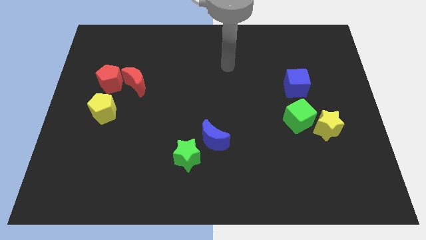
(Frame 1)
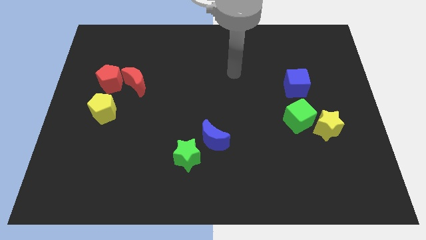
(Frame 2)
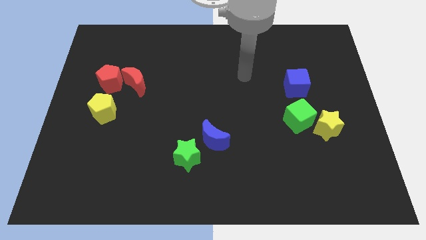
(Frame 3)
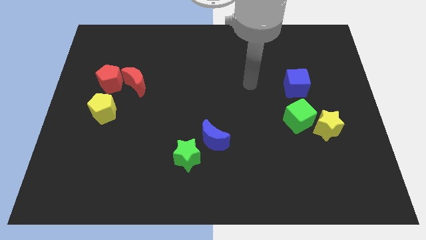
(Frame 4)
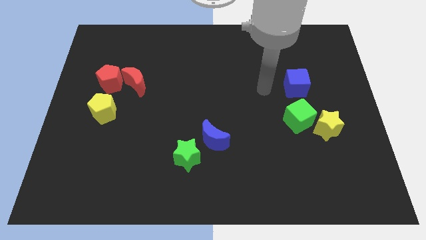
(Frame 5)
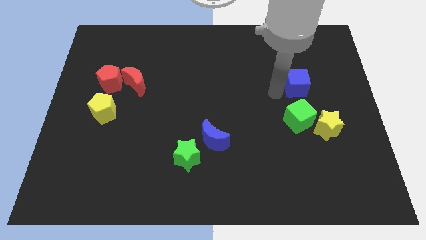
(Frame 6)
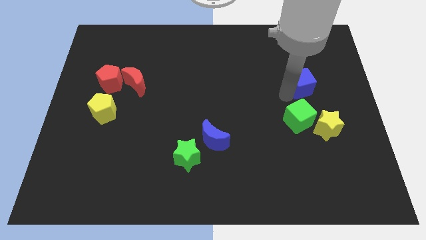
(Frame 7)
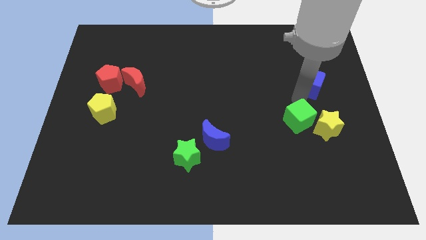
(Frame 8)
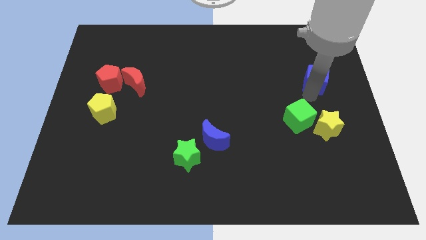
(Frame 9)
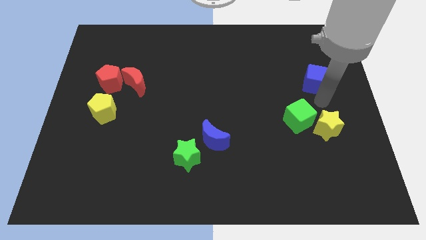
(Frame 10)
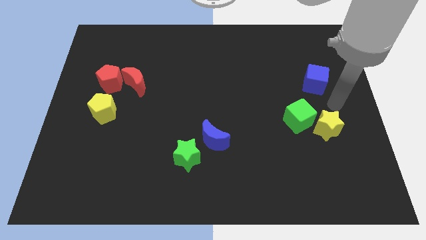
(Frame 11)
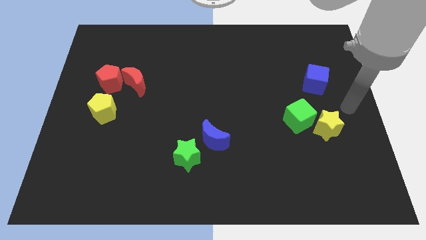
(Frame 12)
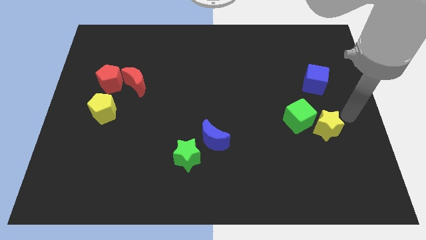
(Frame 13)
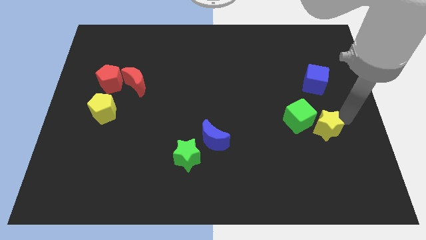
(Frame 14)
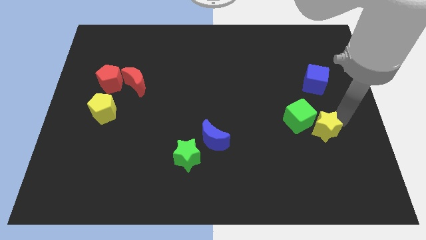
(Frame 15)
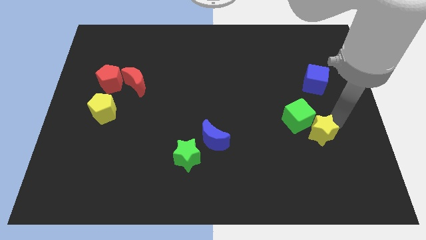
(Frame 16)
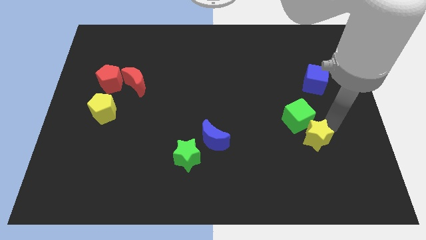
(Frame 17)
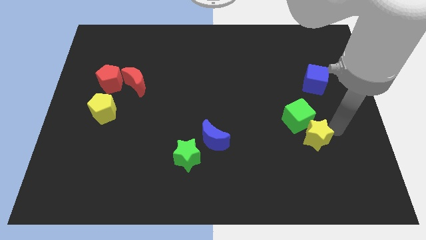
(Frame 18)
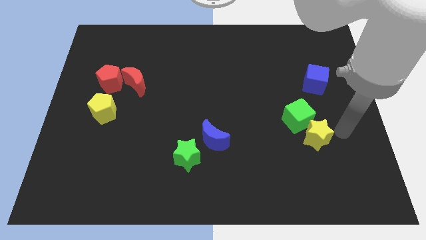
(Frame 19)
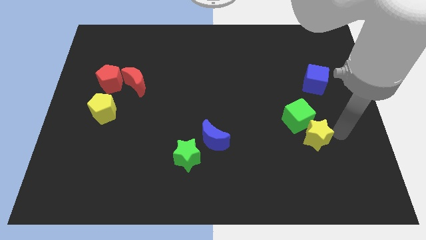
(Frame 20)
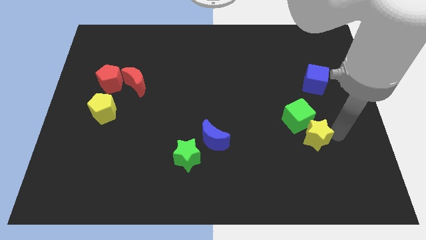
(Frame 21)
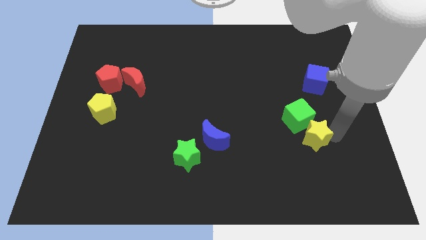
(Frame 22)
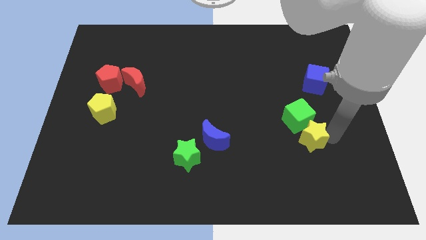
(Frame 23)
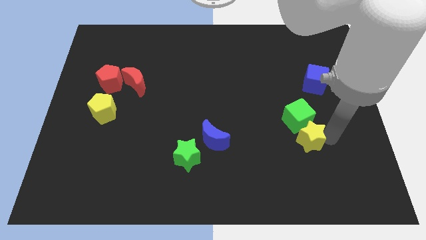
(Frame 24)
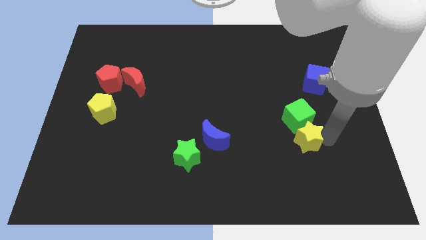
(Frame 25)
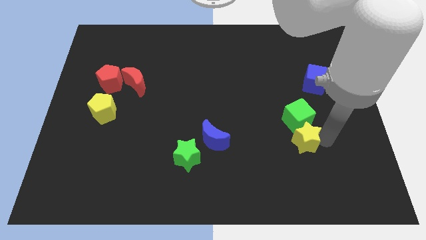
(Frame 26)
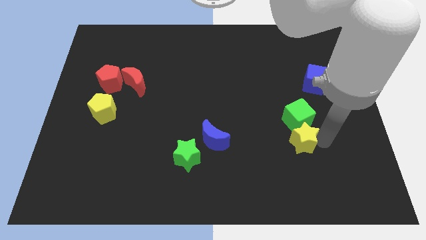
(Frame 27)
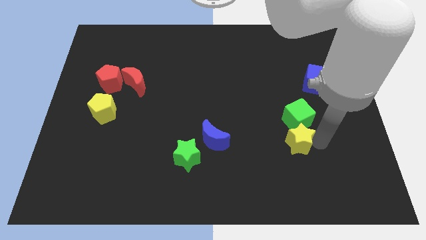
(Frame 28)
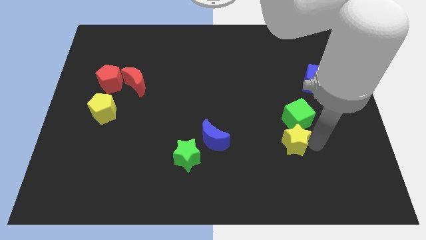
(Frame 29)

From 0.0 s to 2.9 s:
slide the yellow star slightly left

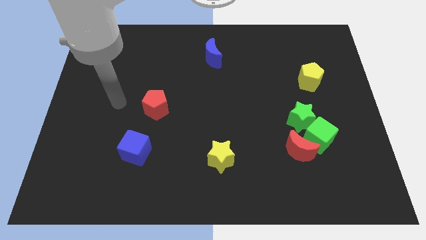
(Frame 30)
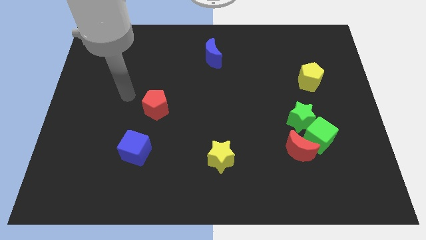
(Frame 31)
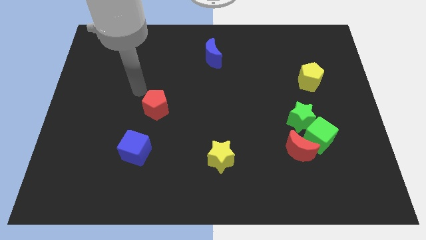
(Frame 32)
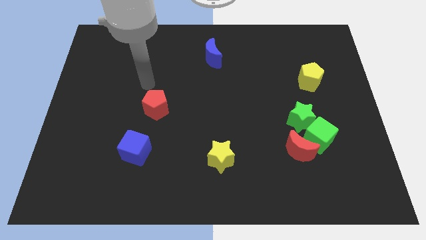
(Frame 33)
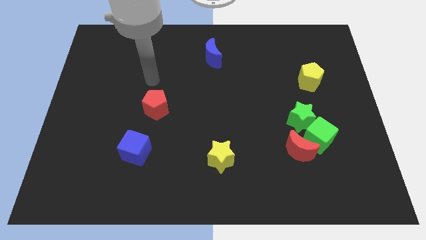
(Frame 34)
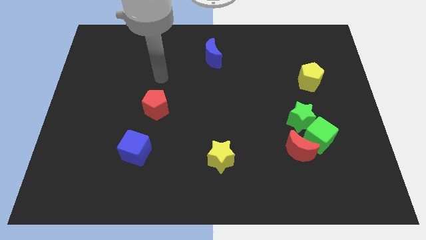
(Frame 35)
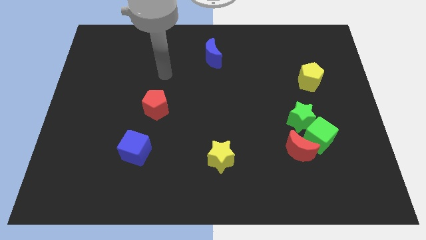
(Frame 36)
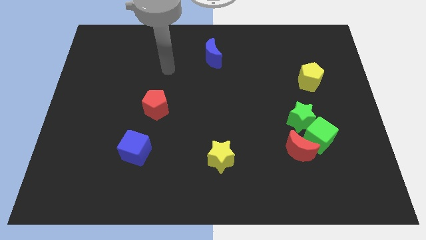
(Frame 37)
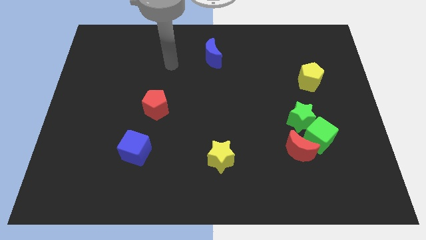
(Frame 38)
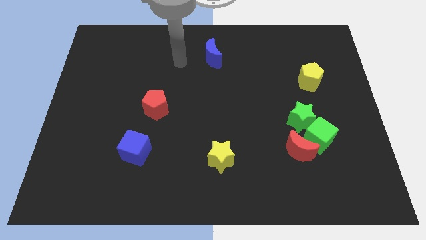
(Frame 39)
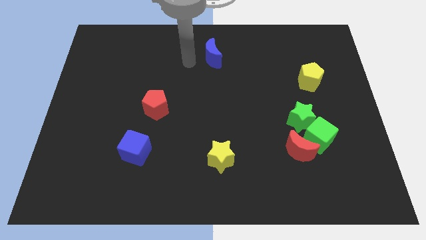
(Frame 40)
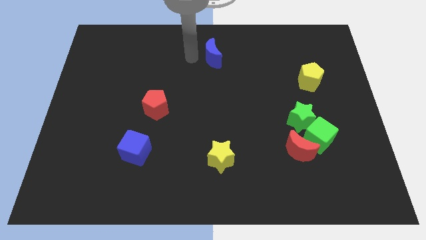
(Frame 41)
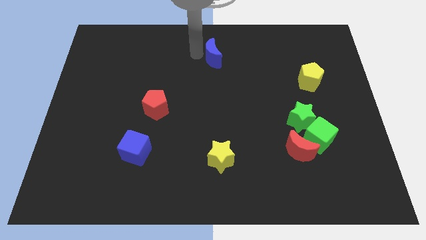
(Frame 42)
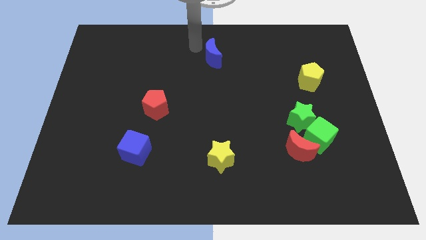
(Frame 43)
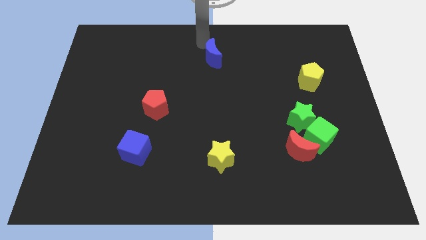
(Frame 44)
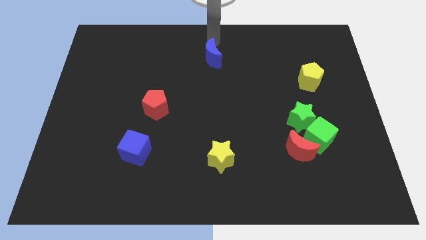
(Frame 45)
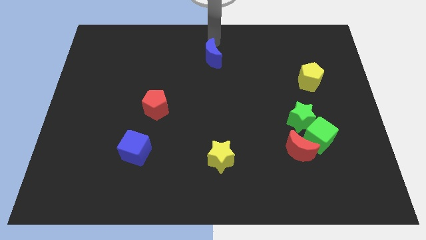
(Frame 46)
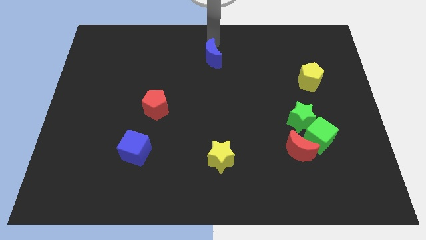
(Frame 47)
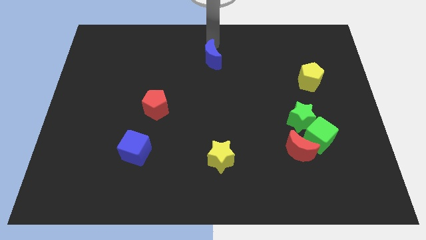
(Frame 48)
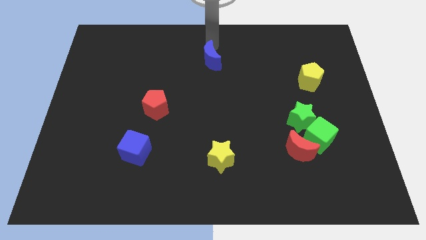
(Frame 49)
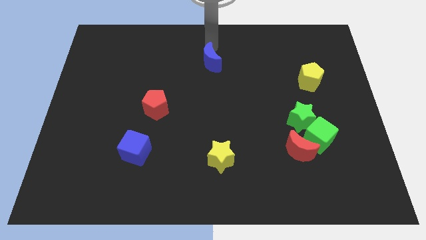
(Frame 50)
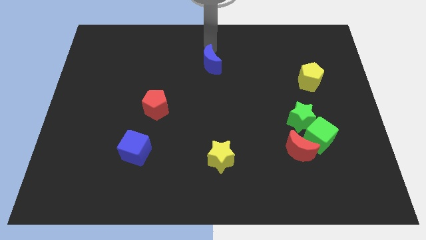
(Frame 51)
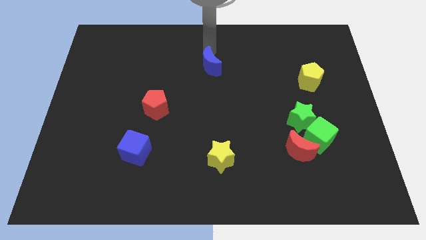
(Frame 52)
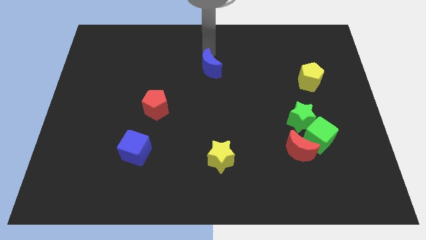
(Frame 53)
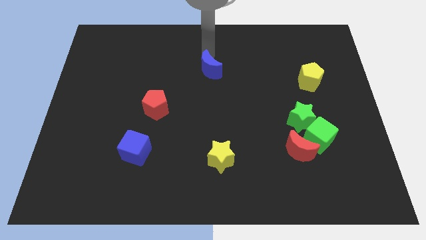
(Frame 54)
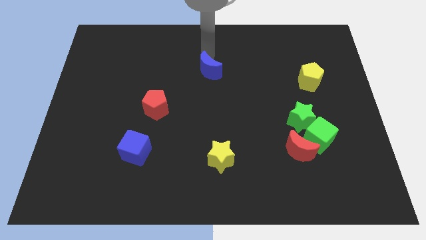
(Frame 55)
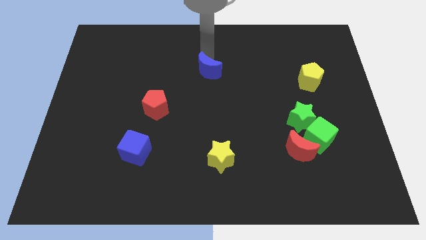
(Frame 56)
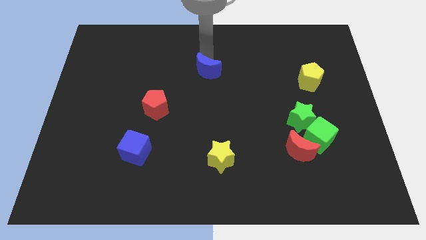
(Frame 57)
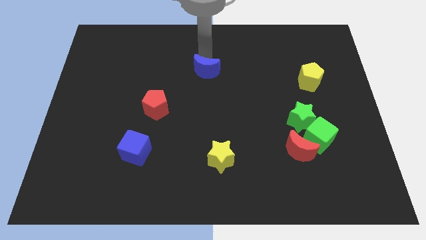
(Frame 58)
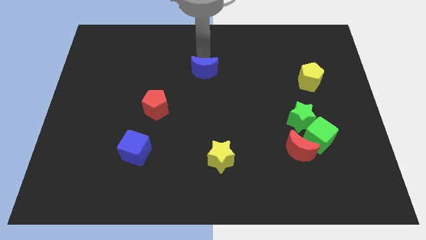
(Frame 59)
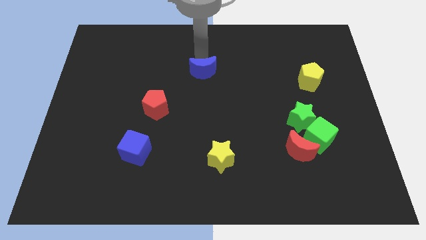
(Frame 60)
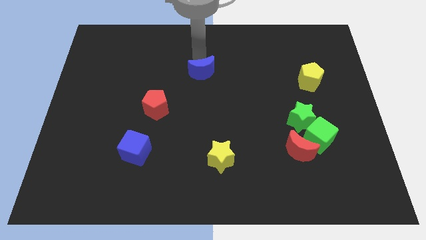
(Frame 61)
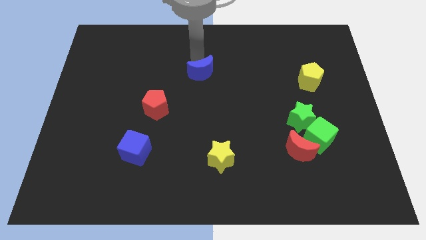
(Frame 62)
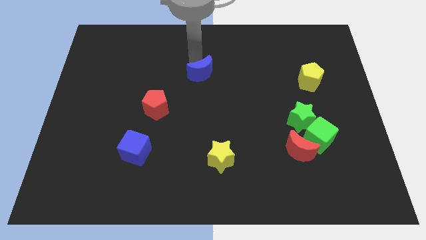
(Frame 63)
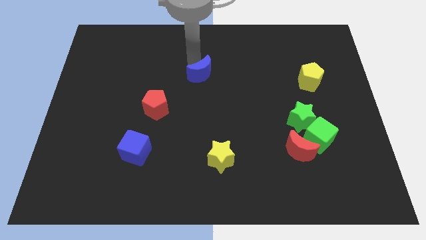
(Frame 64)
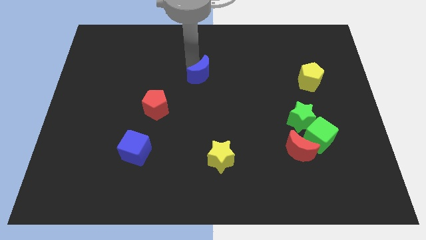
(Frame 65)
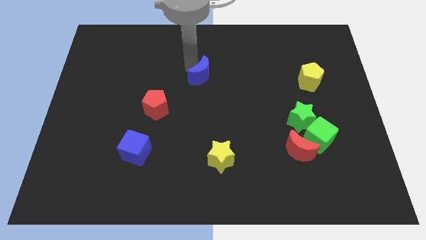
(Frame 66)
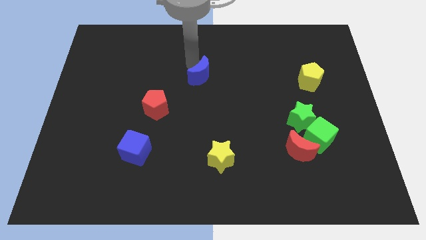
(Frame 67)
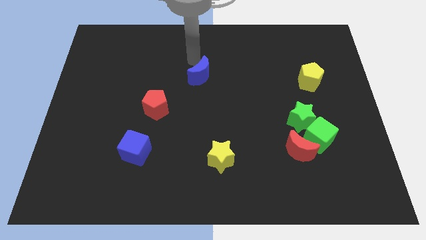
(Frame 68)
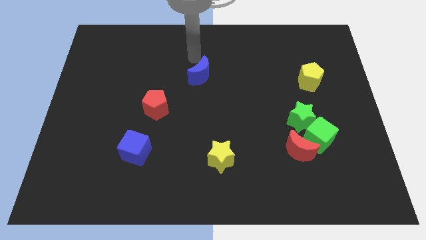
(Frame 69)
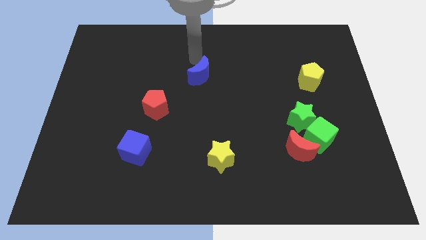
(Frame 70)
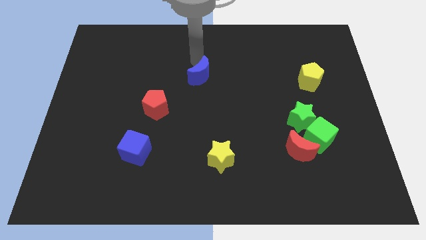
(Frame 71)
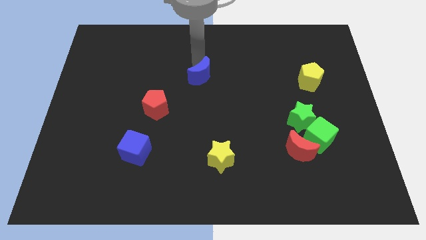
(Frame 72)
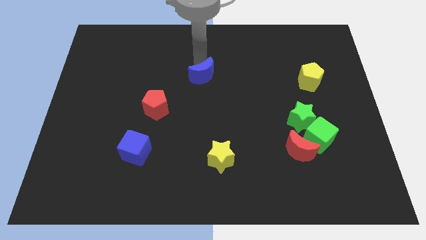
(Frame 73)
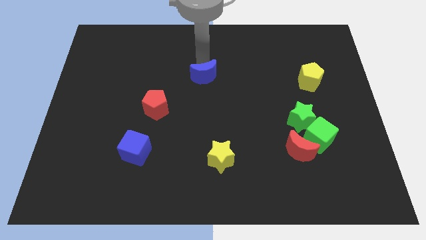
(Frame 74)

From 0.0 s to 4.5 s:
slightly push the blue moon down

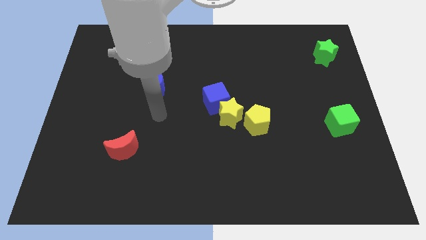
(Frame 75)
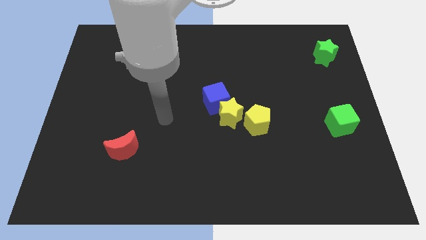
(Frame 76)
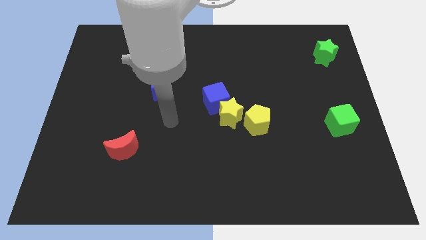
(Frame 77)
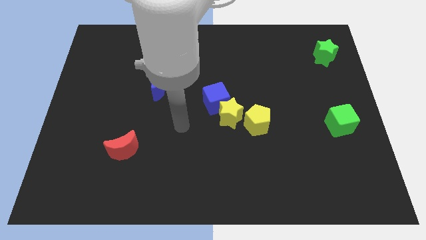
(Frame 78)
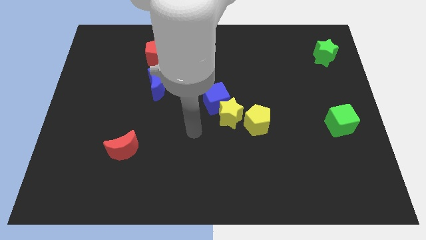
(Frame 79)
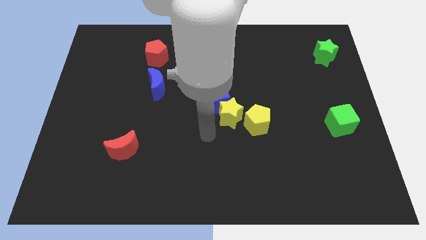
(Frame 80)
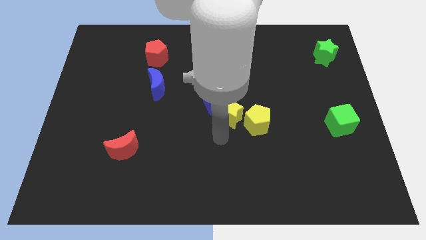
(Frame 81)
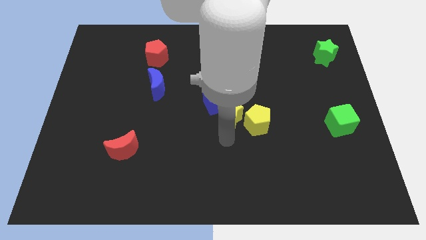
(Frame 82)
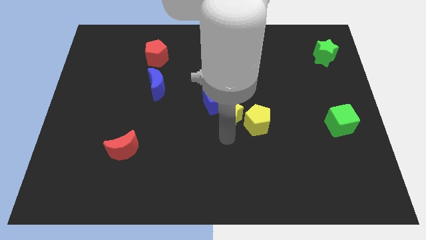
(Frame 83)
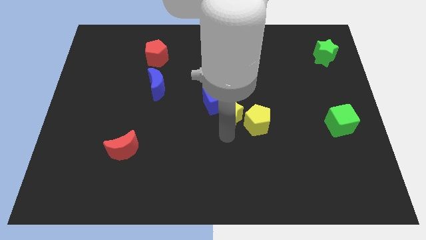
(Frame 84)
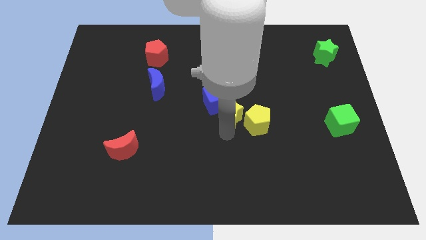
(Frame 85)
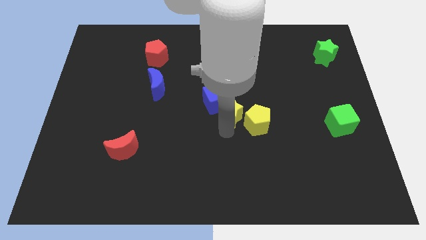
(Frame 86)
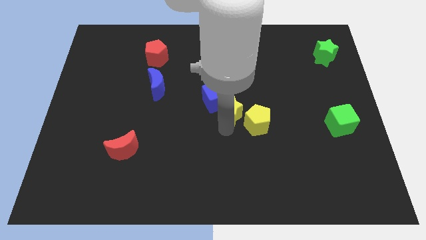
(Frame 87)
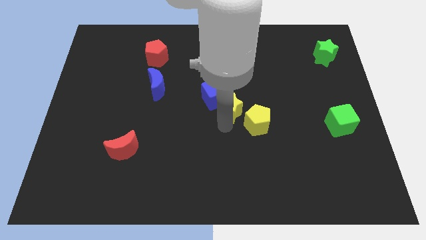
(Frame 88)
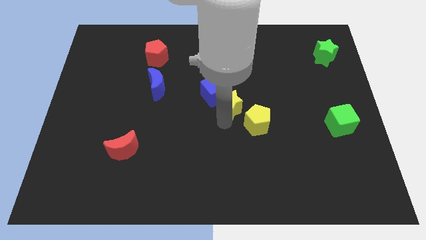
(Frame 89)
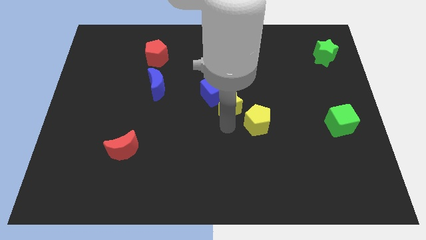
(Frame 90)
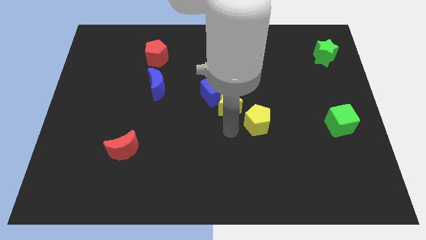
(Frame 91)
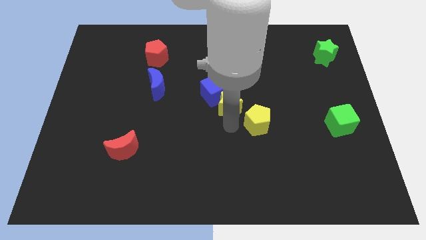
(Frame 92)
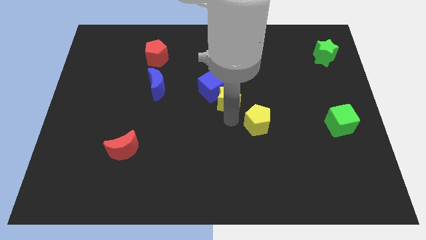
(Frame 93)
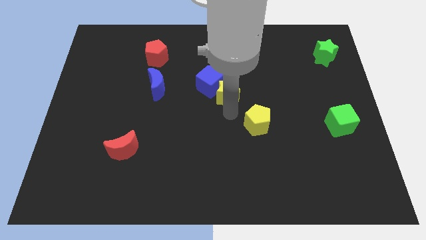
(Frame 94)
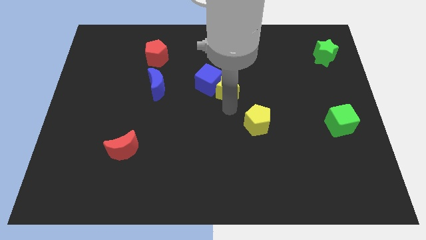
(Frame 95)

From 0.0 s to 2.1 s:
slightly push the yellow star upwards
